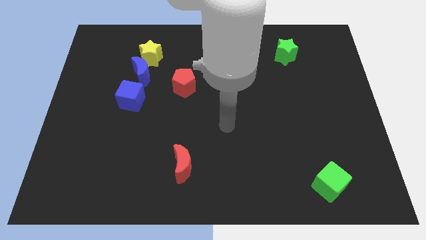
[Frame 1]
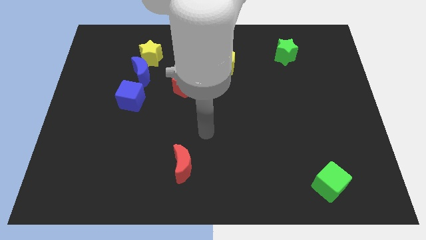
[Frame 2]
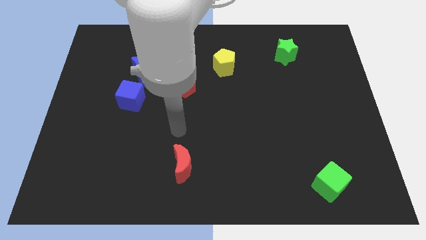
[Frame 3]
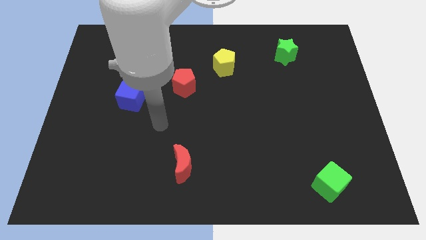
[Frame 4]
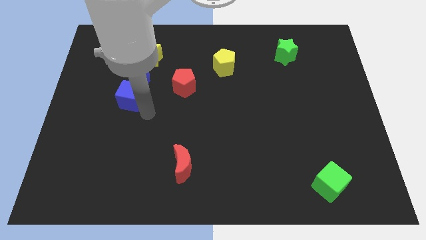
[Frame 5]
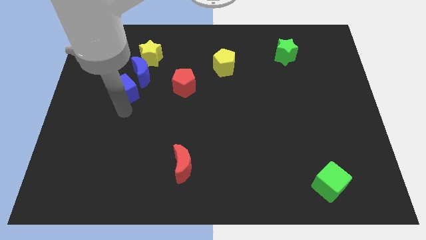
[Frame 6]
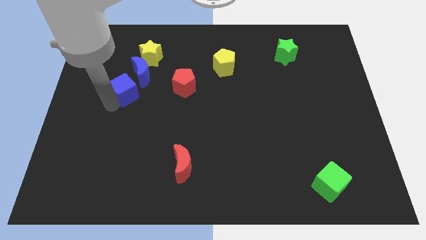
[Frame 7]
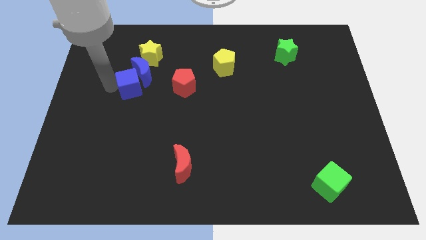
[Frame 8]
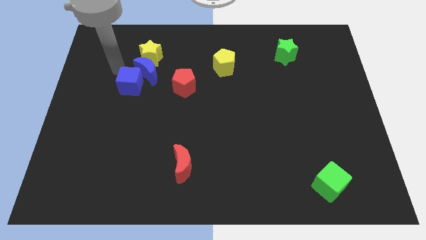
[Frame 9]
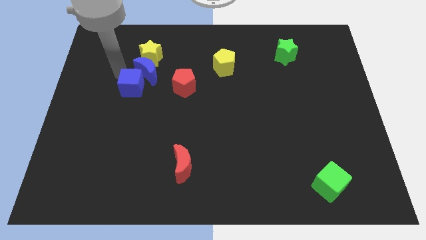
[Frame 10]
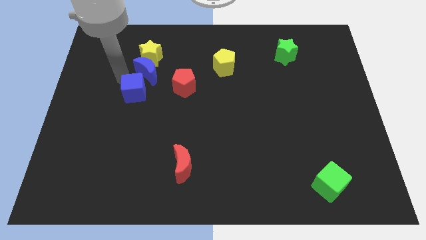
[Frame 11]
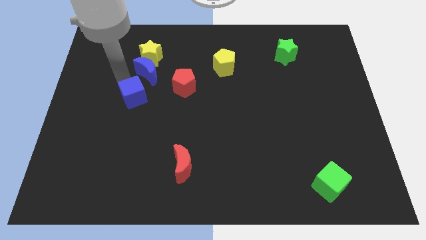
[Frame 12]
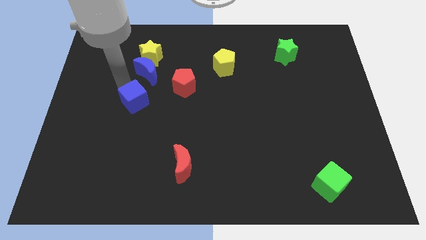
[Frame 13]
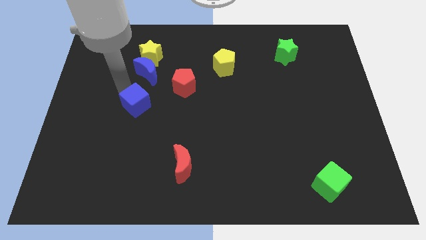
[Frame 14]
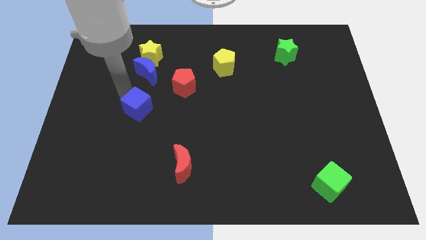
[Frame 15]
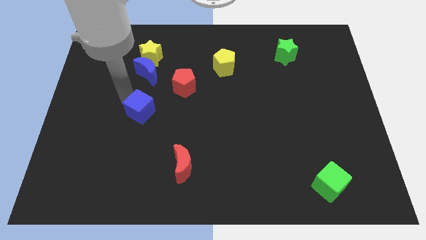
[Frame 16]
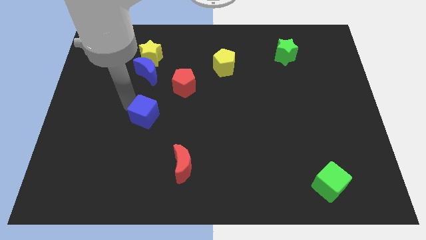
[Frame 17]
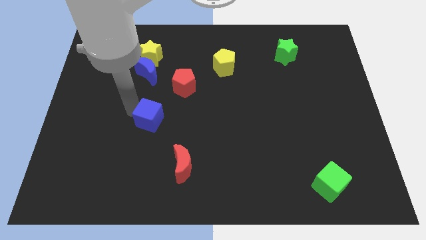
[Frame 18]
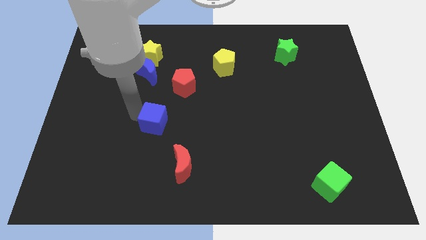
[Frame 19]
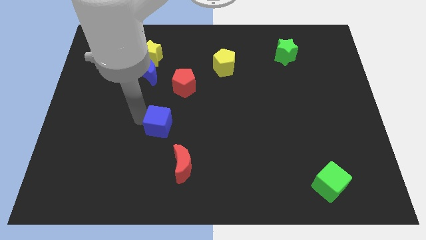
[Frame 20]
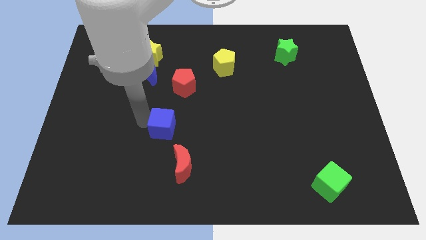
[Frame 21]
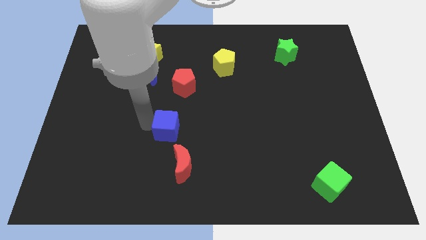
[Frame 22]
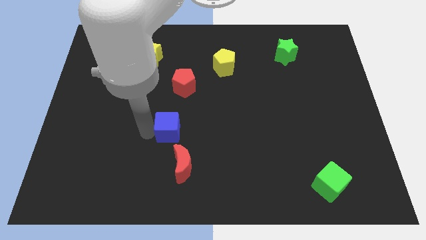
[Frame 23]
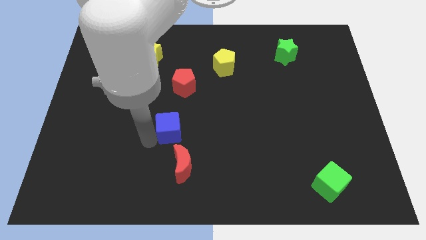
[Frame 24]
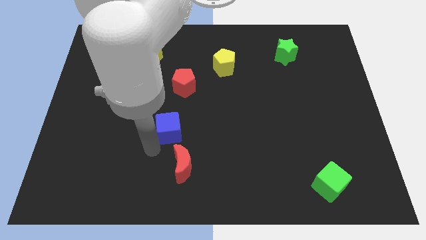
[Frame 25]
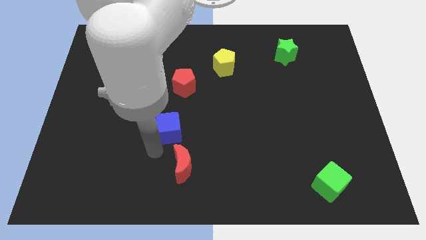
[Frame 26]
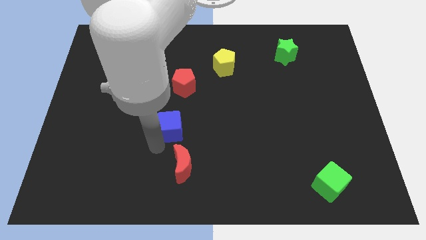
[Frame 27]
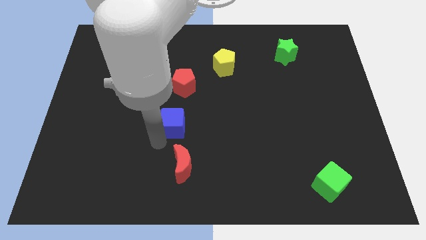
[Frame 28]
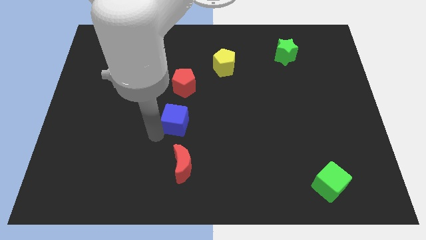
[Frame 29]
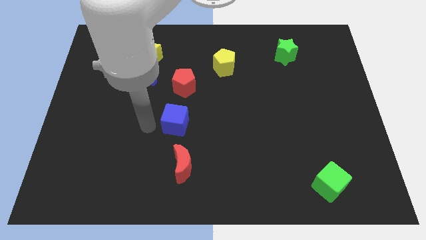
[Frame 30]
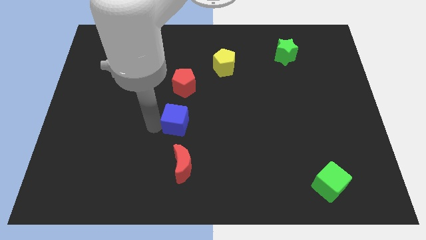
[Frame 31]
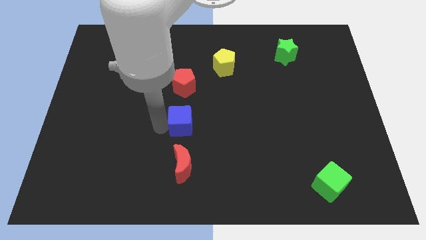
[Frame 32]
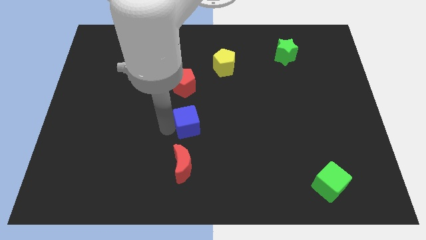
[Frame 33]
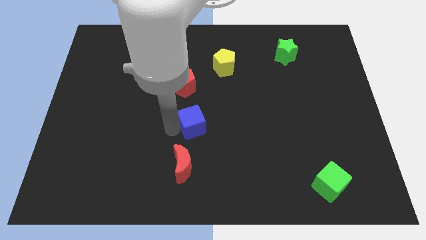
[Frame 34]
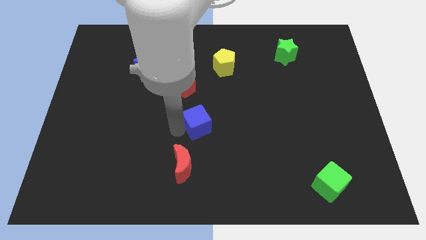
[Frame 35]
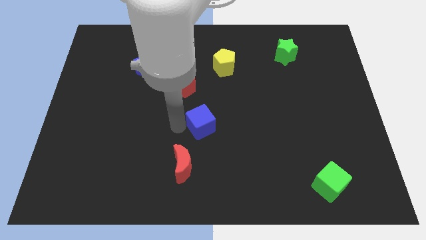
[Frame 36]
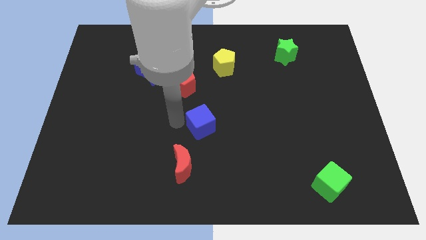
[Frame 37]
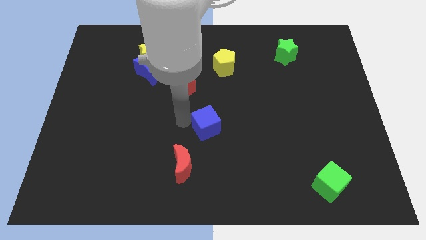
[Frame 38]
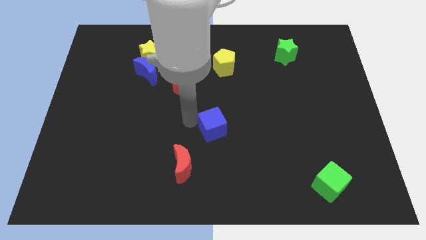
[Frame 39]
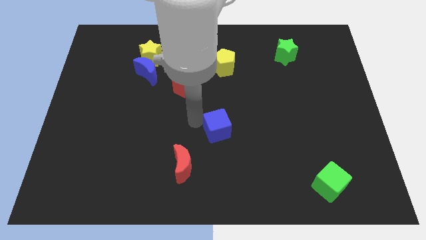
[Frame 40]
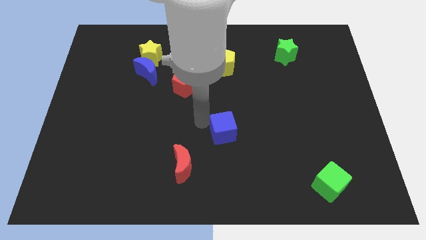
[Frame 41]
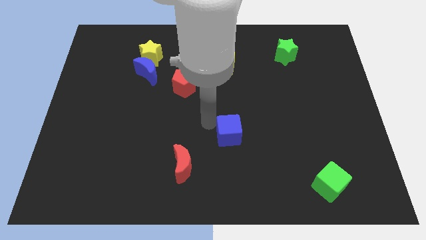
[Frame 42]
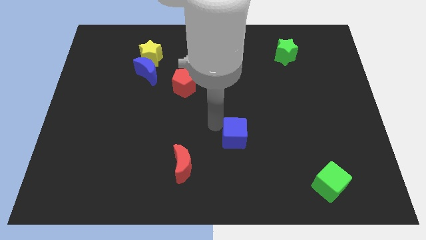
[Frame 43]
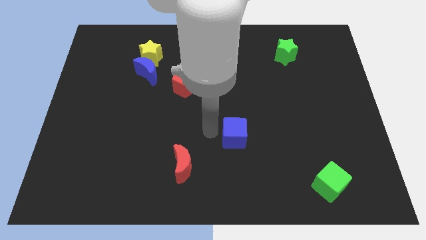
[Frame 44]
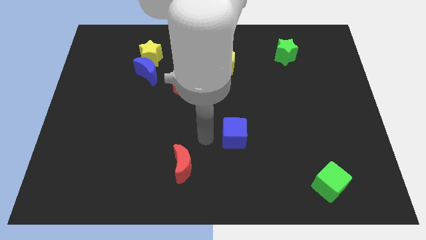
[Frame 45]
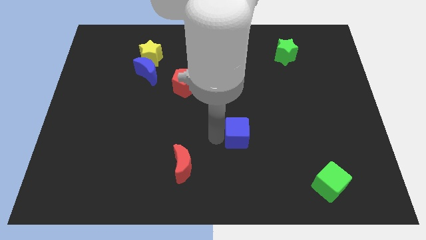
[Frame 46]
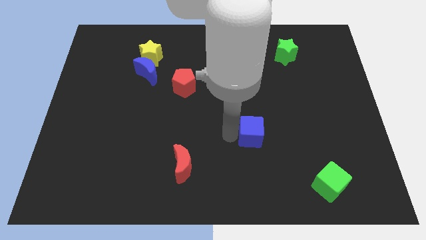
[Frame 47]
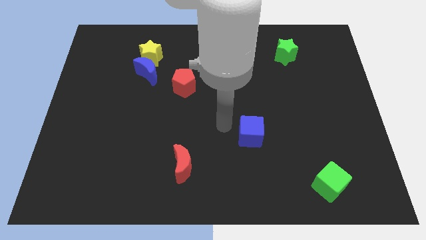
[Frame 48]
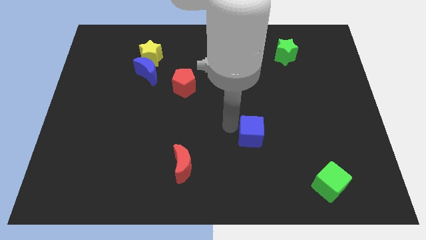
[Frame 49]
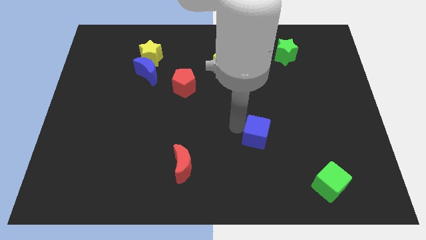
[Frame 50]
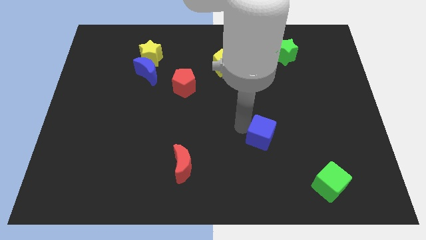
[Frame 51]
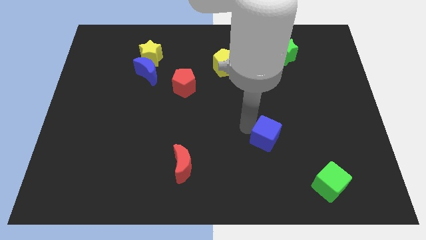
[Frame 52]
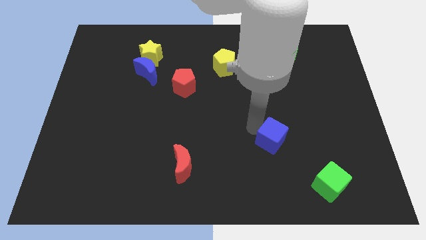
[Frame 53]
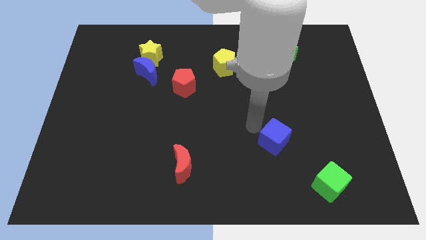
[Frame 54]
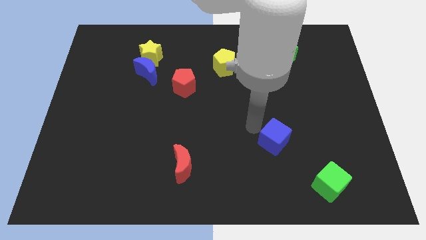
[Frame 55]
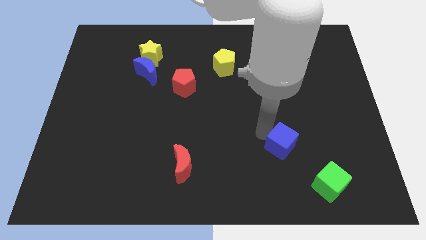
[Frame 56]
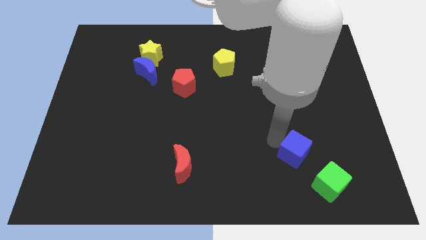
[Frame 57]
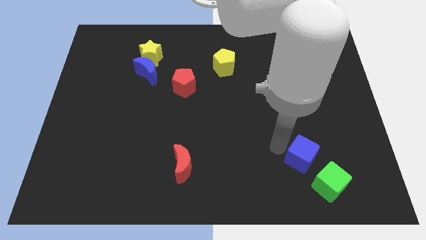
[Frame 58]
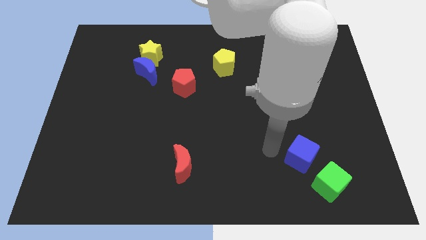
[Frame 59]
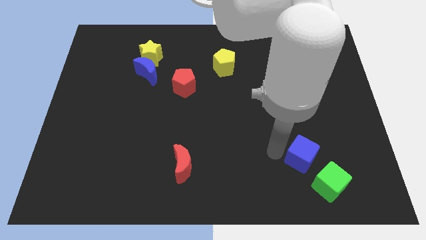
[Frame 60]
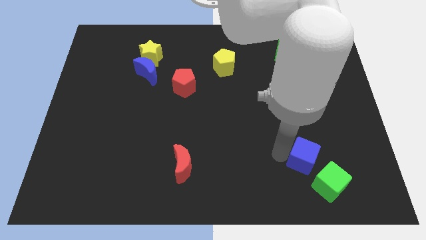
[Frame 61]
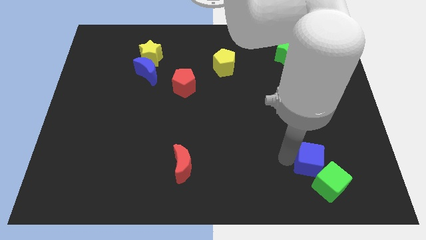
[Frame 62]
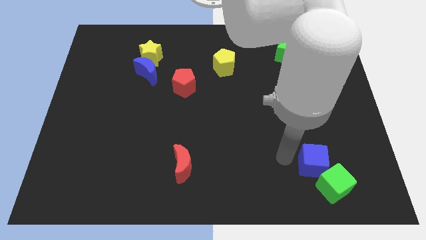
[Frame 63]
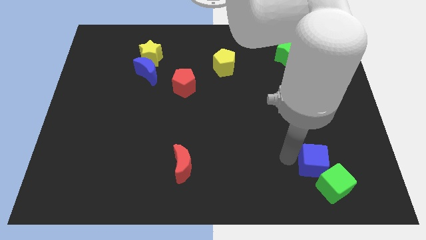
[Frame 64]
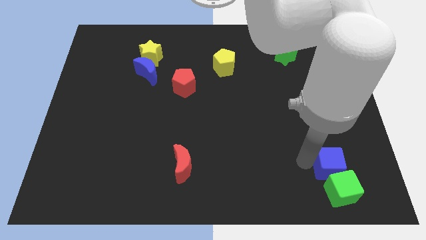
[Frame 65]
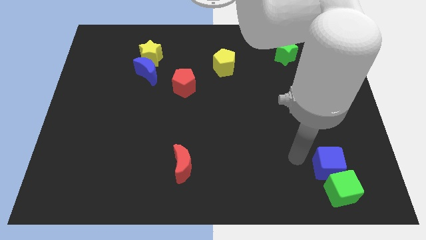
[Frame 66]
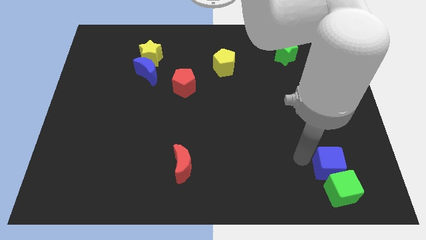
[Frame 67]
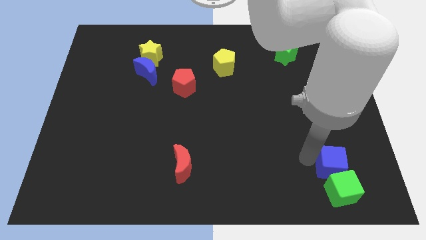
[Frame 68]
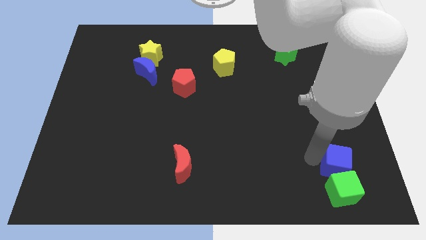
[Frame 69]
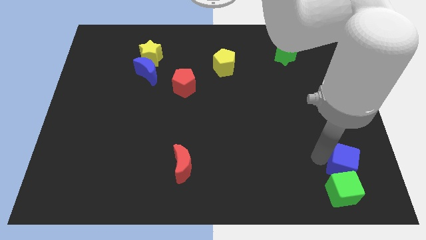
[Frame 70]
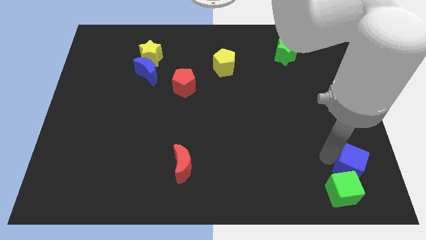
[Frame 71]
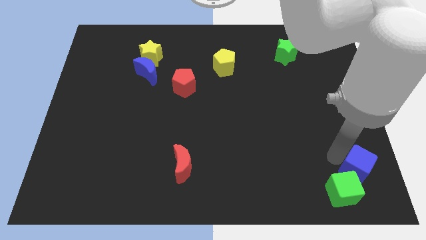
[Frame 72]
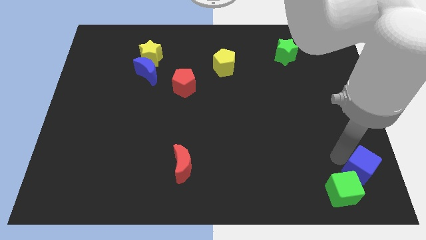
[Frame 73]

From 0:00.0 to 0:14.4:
put the blue cube to the bottom right corner
